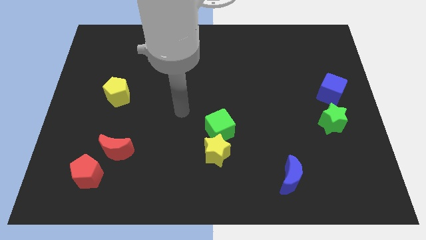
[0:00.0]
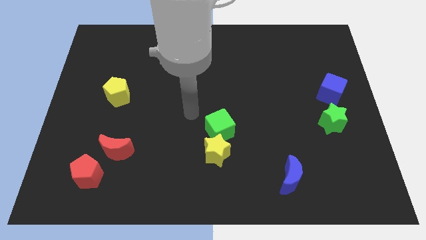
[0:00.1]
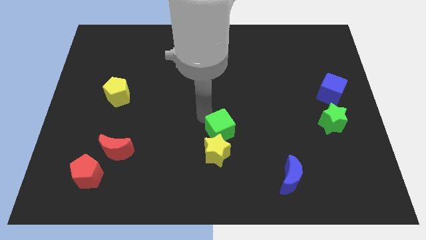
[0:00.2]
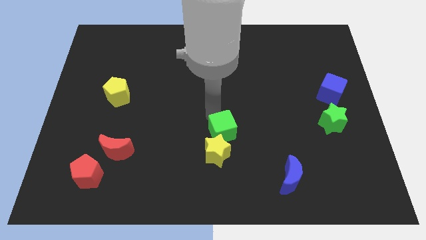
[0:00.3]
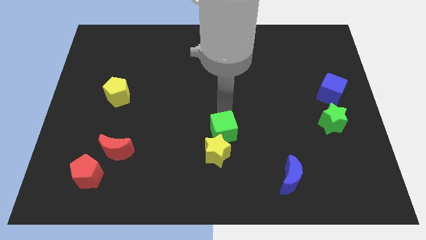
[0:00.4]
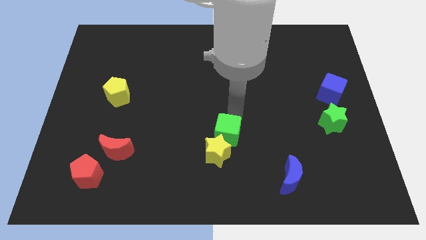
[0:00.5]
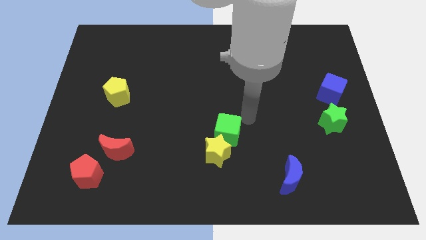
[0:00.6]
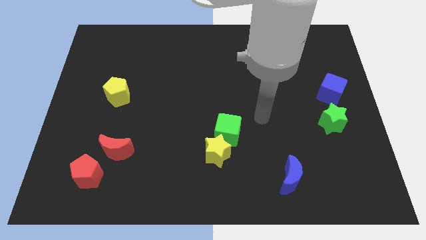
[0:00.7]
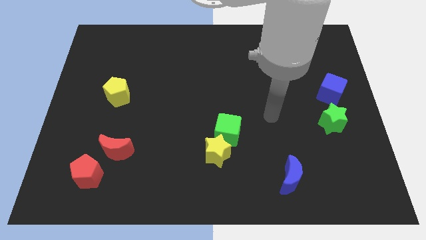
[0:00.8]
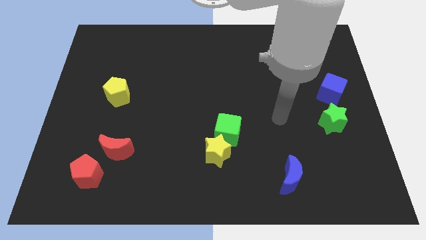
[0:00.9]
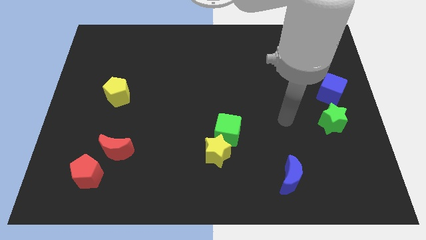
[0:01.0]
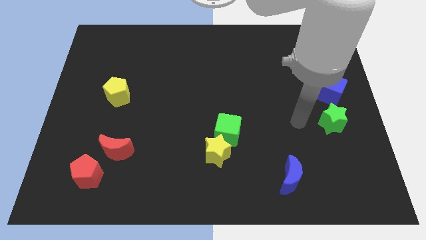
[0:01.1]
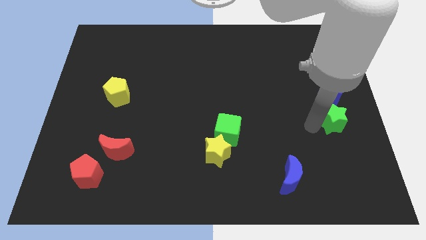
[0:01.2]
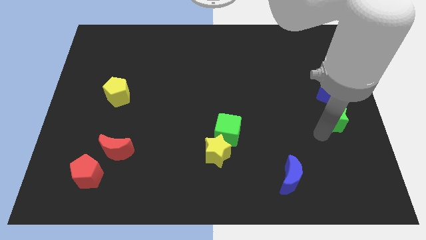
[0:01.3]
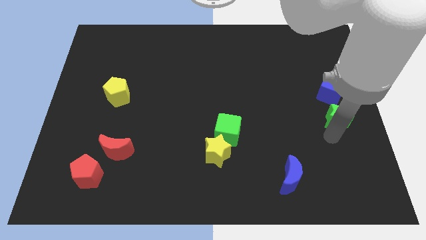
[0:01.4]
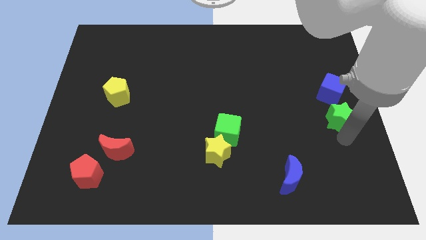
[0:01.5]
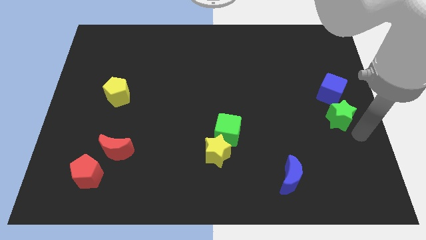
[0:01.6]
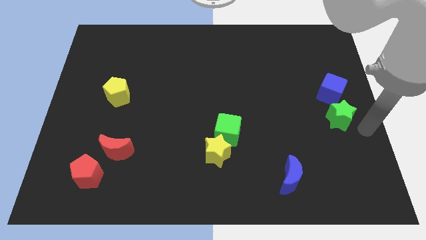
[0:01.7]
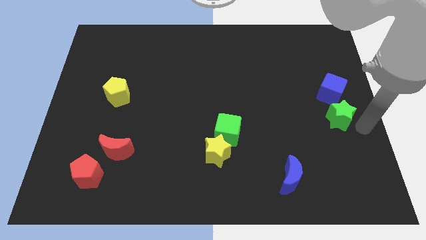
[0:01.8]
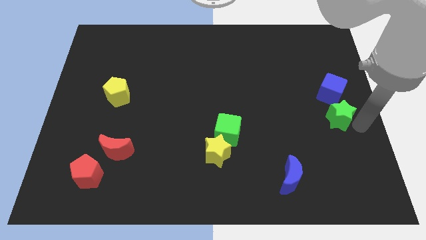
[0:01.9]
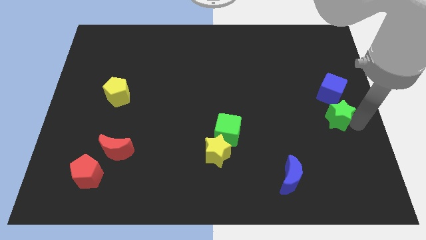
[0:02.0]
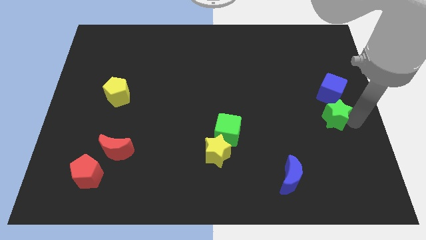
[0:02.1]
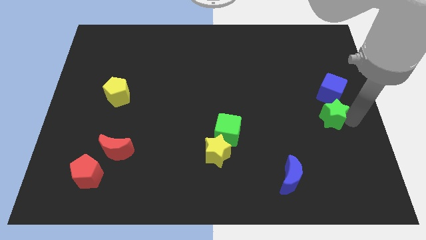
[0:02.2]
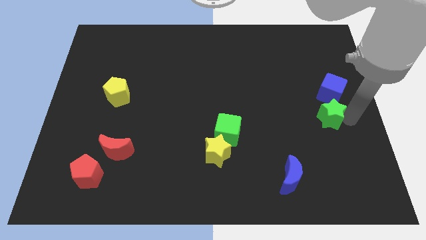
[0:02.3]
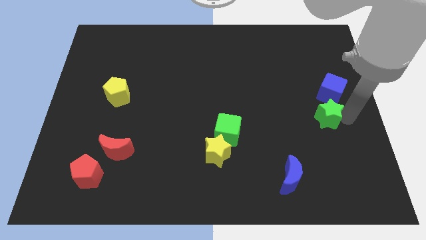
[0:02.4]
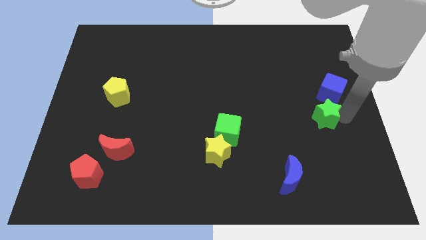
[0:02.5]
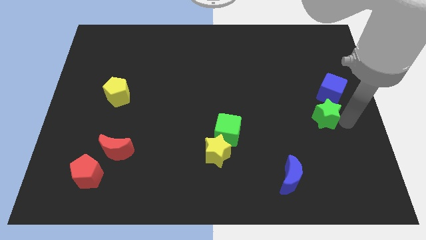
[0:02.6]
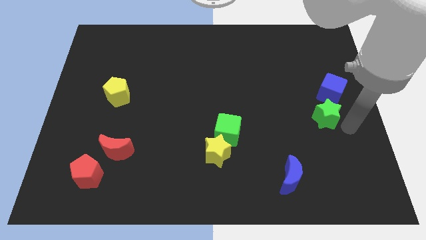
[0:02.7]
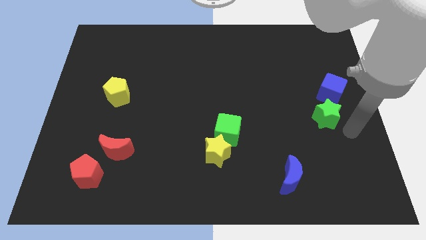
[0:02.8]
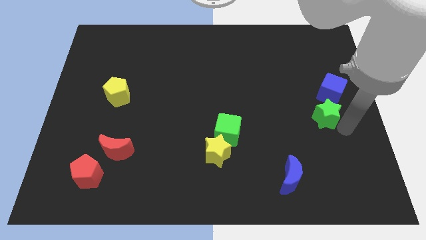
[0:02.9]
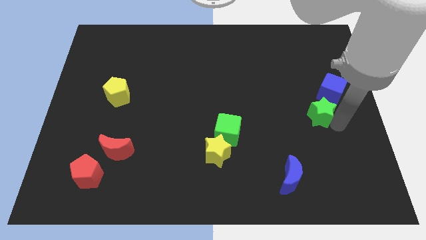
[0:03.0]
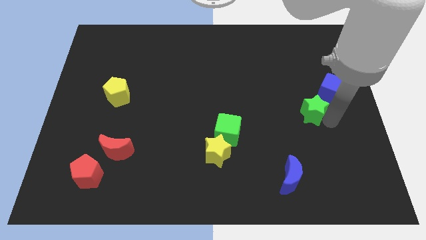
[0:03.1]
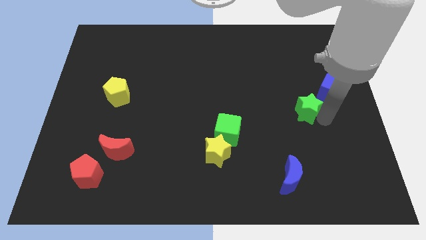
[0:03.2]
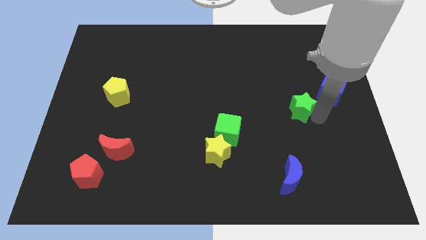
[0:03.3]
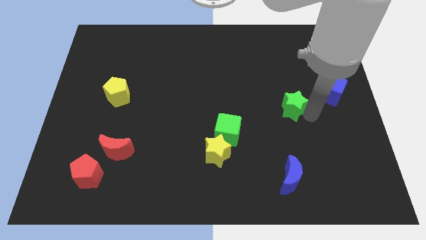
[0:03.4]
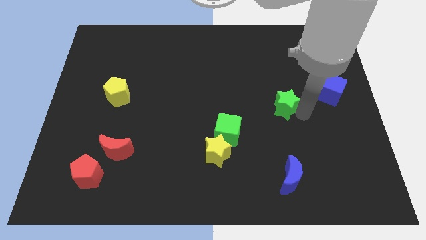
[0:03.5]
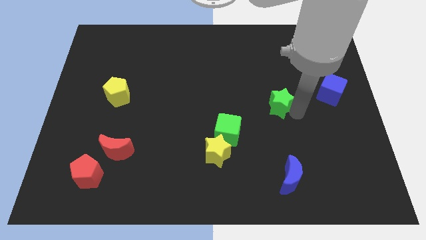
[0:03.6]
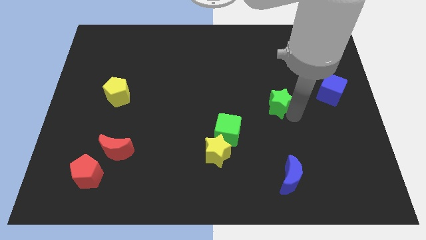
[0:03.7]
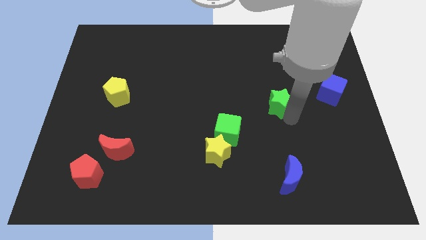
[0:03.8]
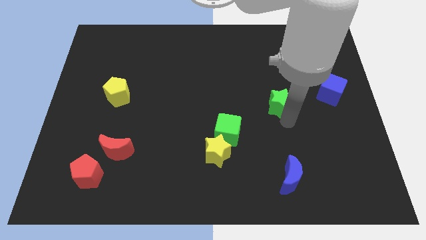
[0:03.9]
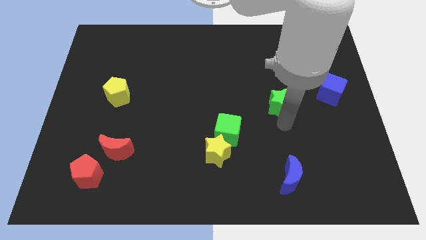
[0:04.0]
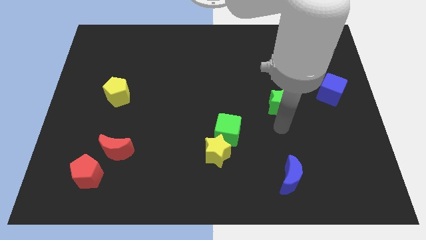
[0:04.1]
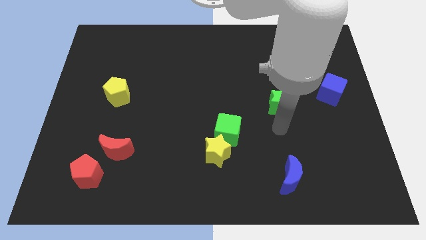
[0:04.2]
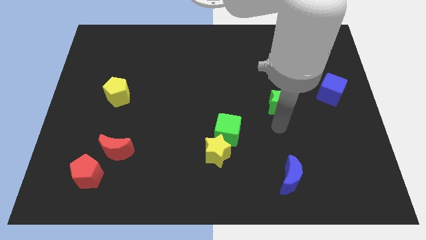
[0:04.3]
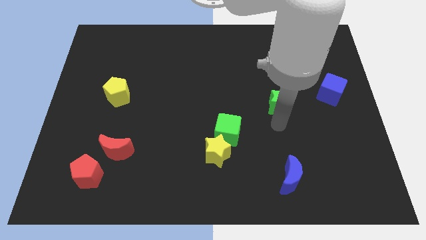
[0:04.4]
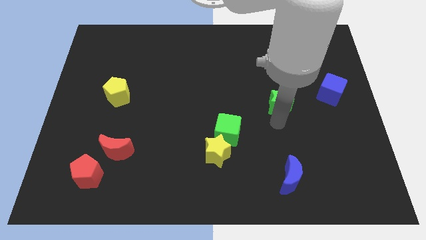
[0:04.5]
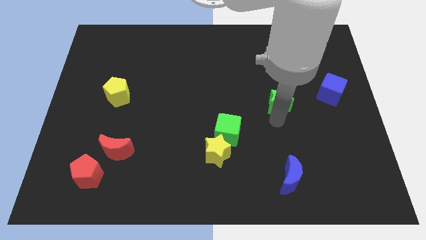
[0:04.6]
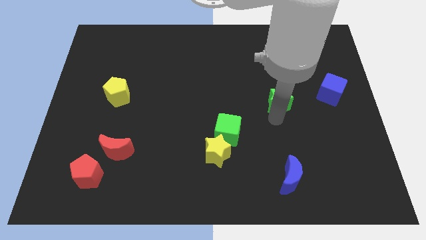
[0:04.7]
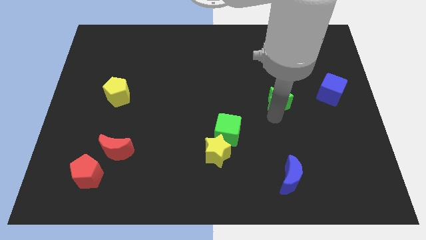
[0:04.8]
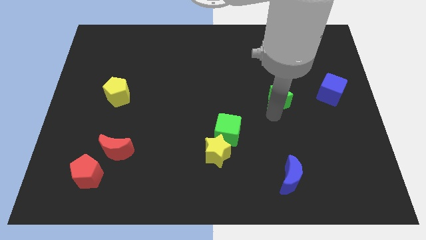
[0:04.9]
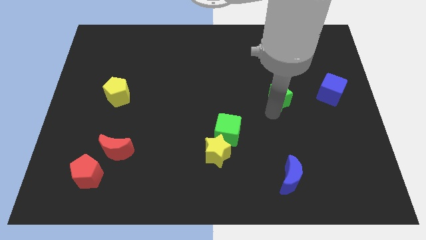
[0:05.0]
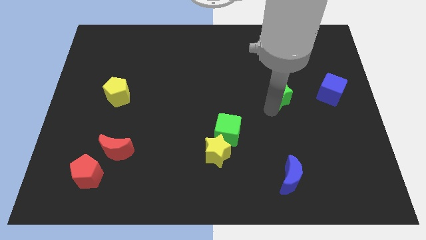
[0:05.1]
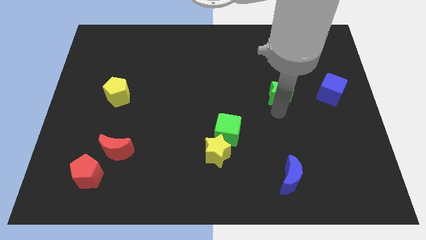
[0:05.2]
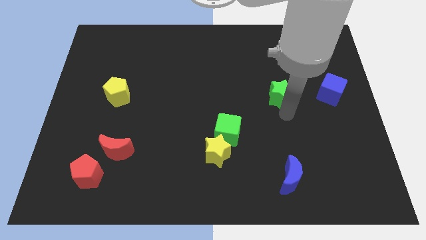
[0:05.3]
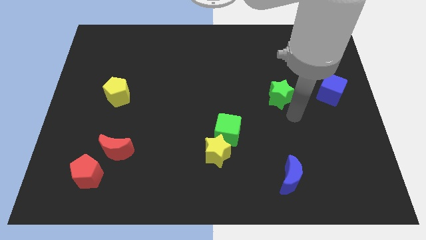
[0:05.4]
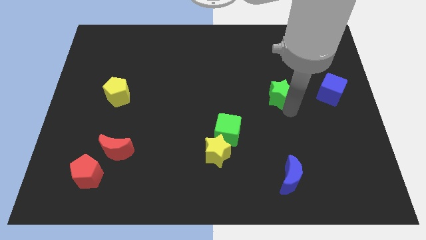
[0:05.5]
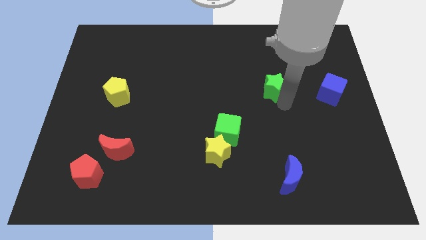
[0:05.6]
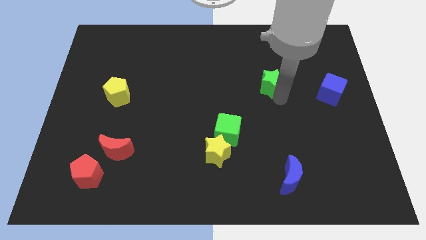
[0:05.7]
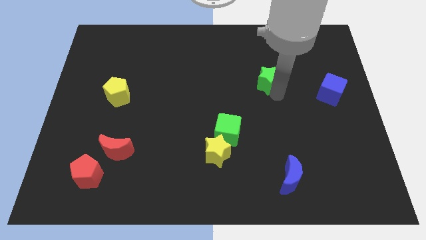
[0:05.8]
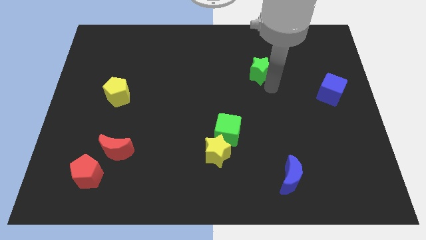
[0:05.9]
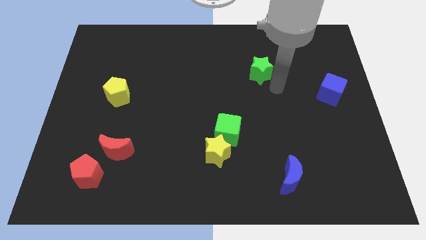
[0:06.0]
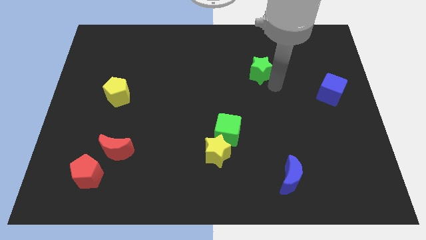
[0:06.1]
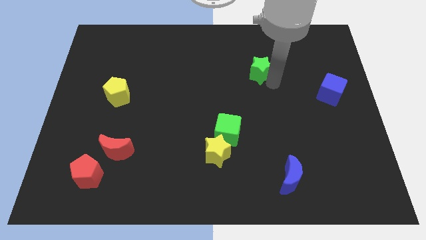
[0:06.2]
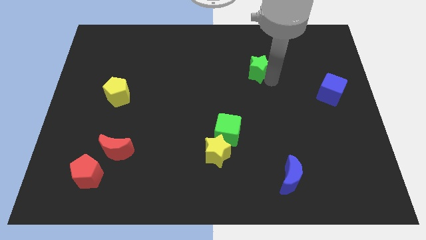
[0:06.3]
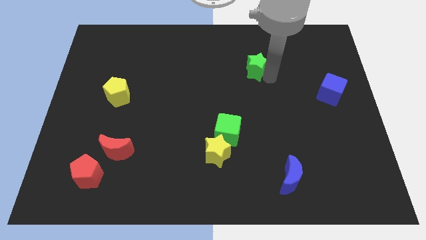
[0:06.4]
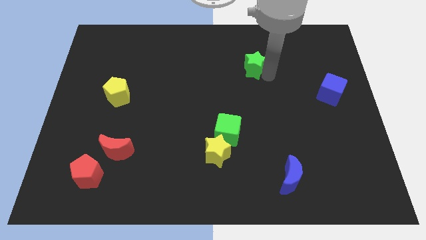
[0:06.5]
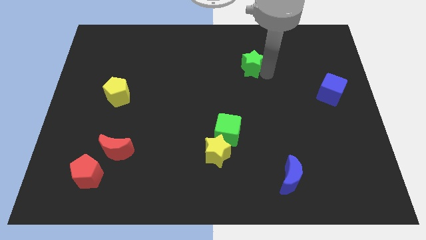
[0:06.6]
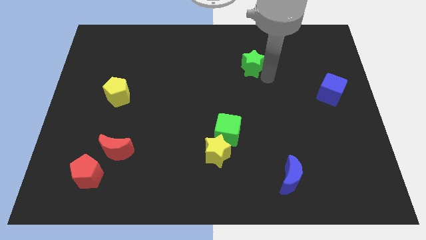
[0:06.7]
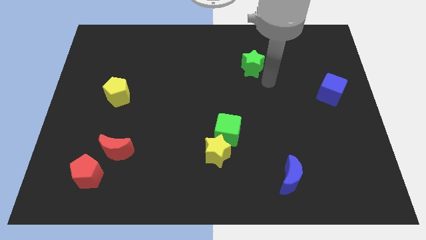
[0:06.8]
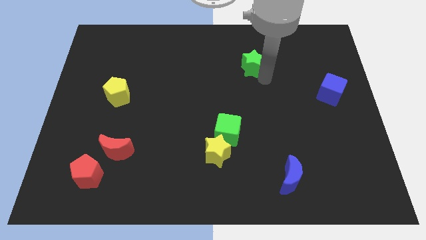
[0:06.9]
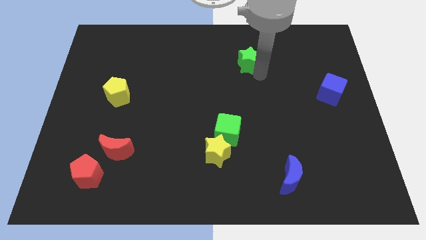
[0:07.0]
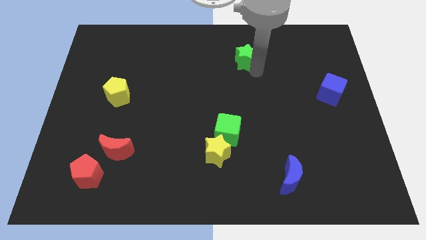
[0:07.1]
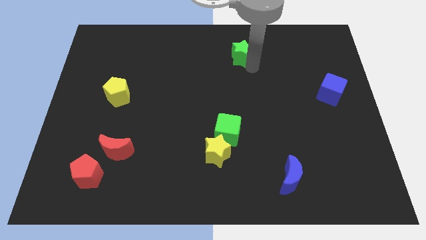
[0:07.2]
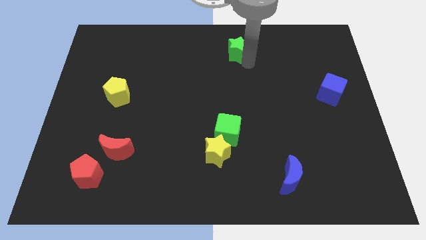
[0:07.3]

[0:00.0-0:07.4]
push the green star to the towards your base

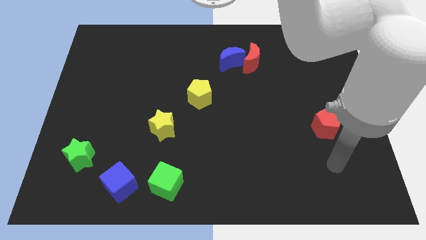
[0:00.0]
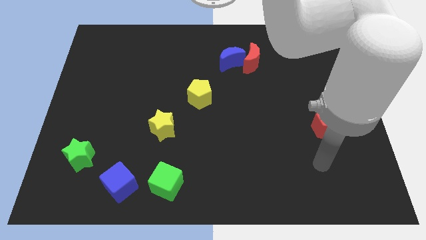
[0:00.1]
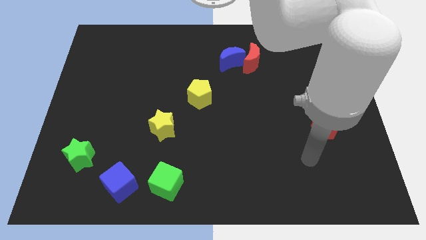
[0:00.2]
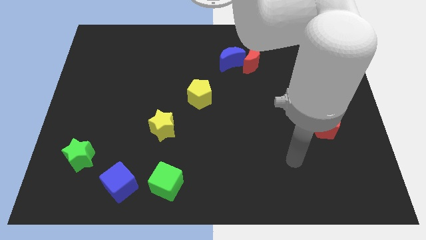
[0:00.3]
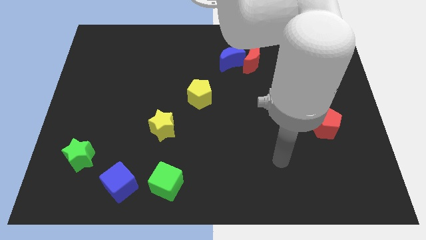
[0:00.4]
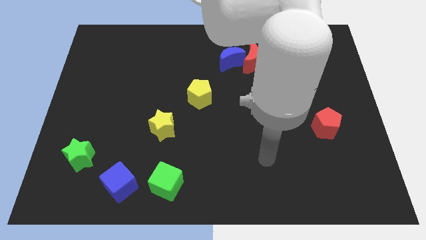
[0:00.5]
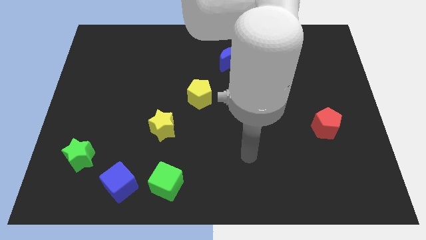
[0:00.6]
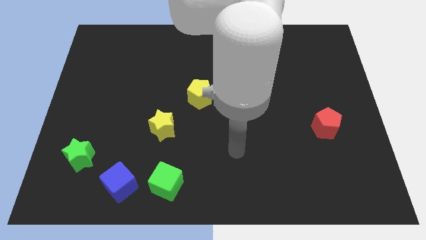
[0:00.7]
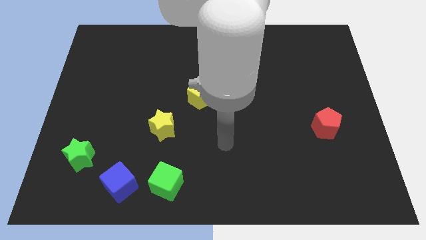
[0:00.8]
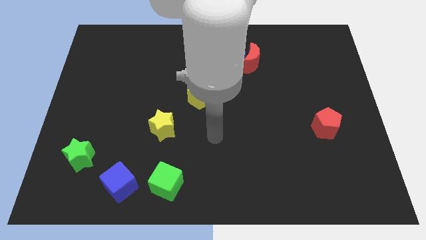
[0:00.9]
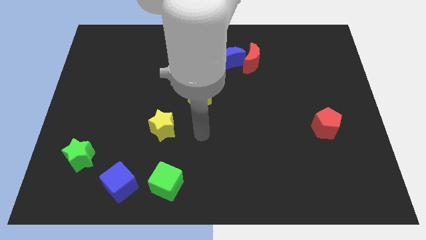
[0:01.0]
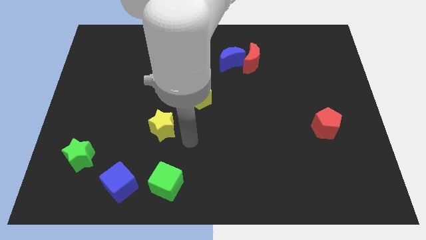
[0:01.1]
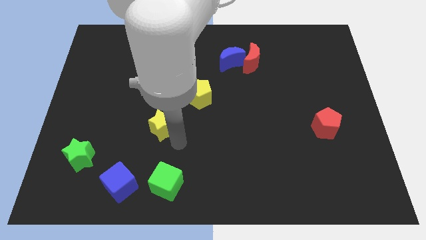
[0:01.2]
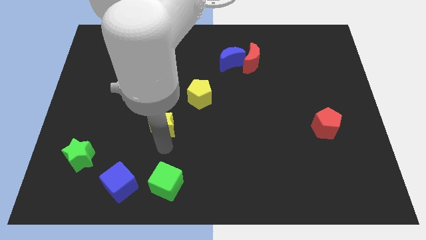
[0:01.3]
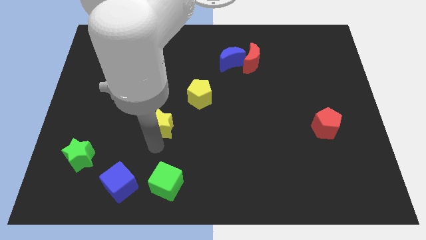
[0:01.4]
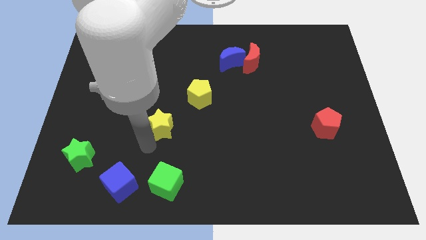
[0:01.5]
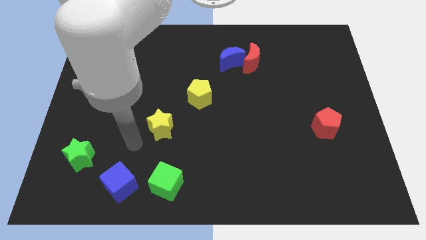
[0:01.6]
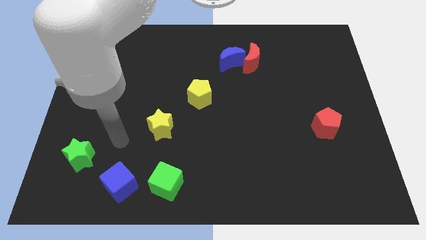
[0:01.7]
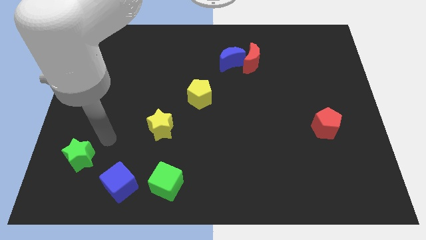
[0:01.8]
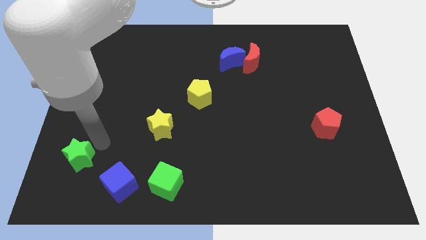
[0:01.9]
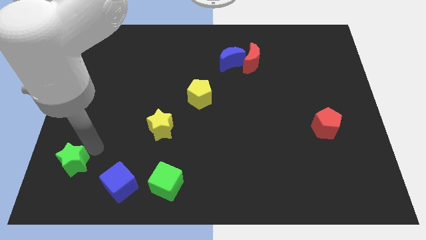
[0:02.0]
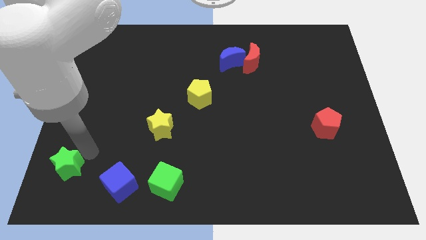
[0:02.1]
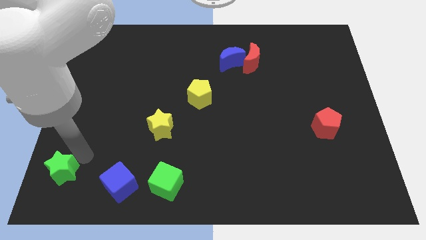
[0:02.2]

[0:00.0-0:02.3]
push the green star to the bottom left
